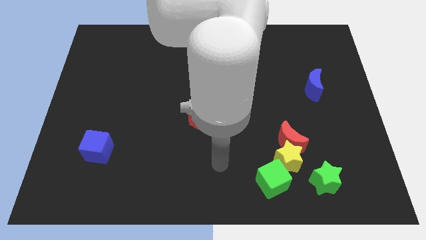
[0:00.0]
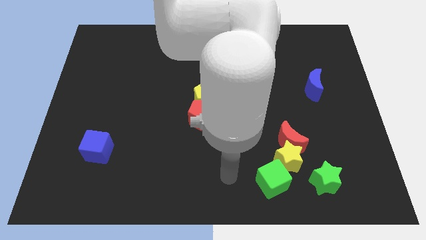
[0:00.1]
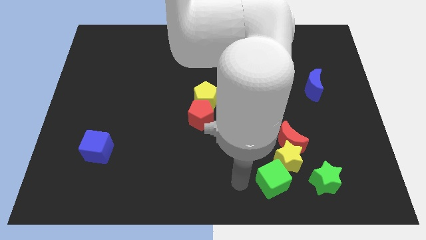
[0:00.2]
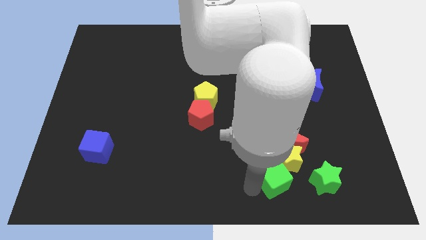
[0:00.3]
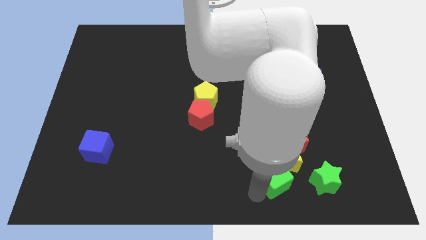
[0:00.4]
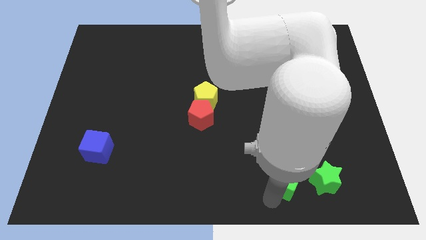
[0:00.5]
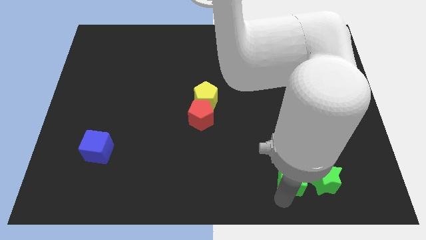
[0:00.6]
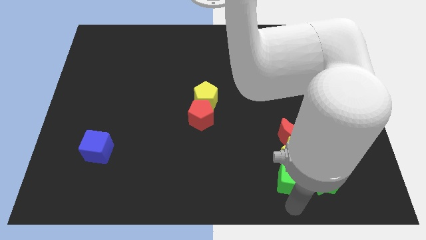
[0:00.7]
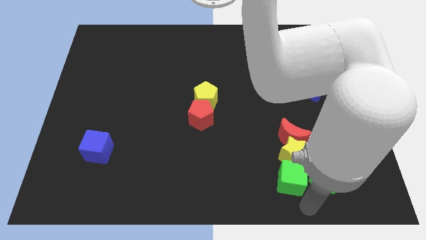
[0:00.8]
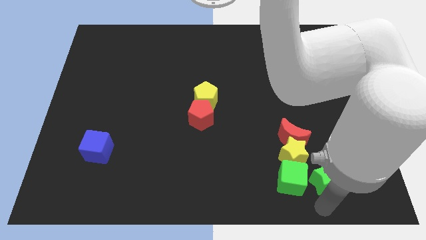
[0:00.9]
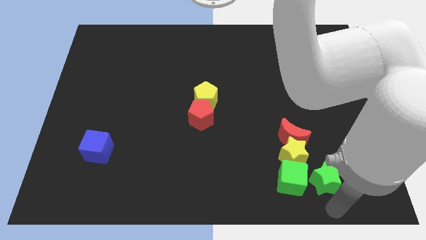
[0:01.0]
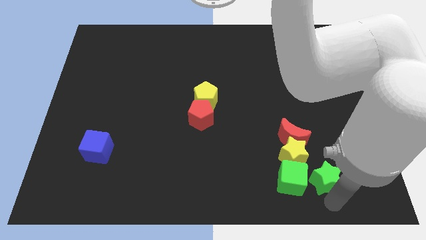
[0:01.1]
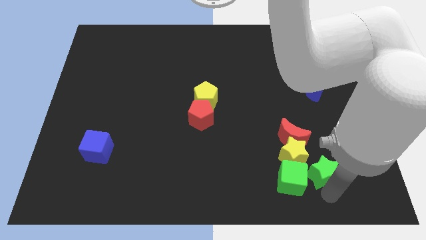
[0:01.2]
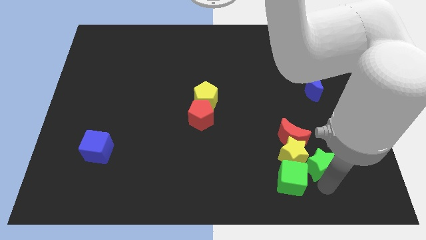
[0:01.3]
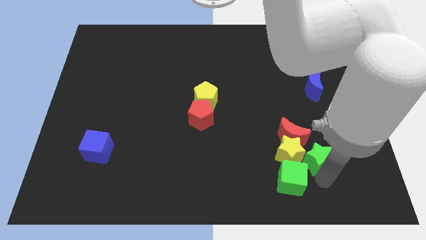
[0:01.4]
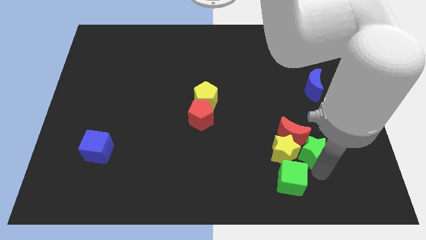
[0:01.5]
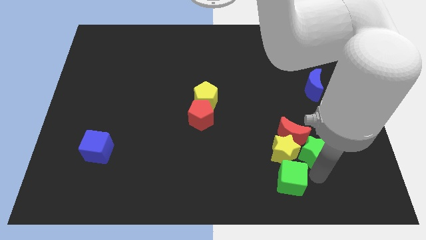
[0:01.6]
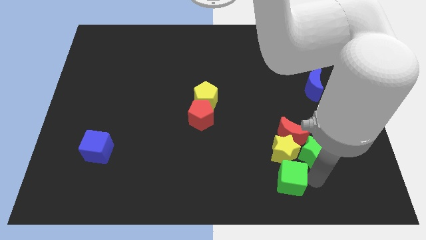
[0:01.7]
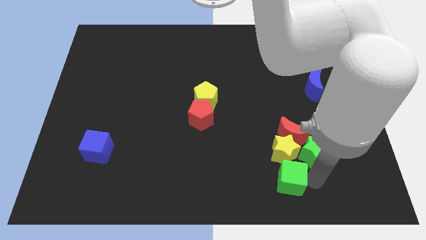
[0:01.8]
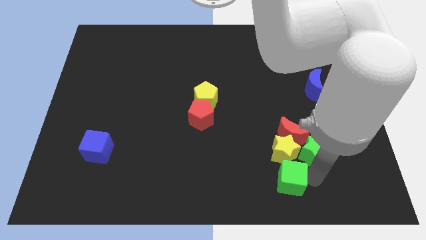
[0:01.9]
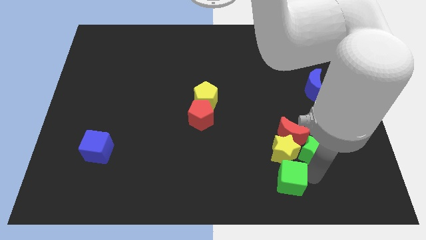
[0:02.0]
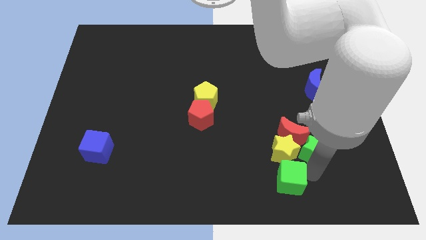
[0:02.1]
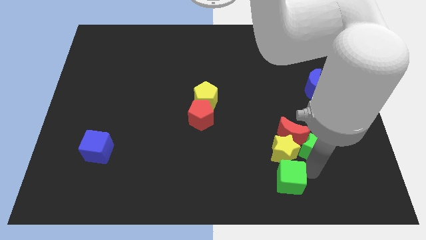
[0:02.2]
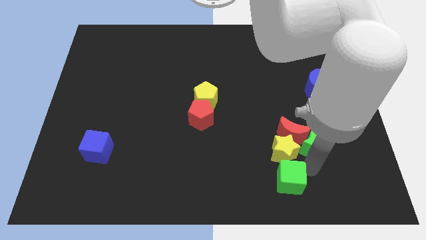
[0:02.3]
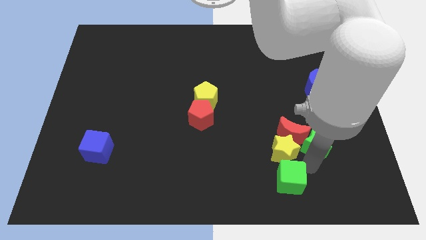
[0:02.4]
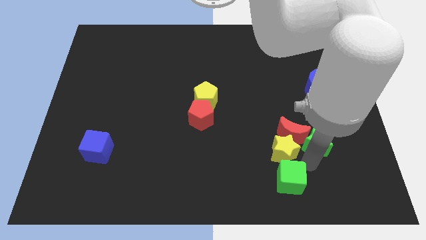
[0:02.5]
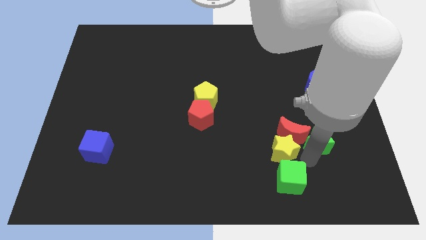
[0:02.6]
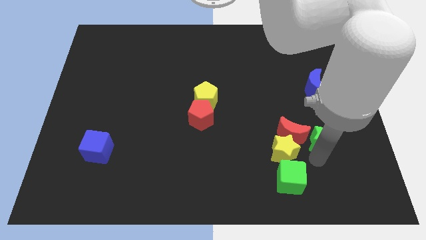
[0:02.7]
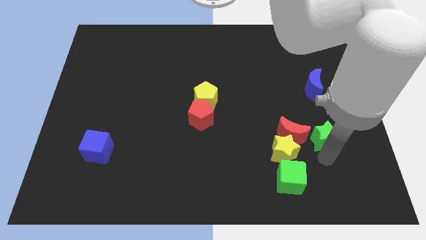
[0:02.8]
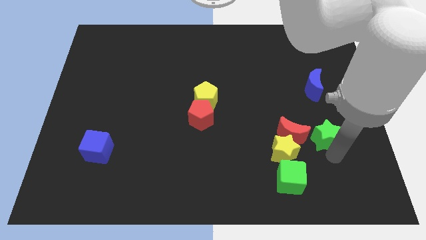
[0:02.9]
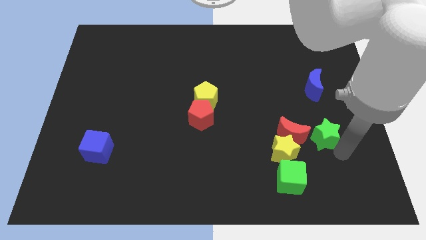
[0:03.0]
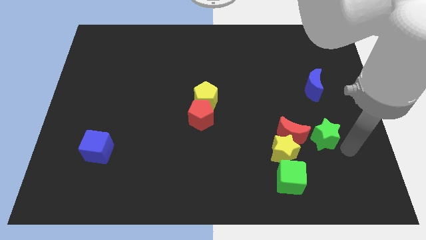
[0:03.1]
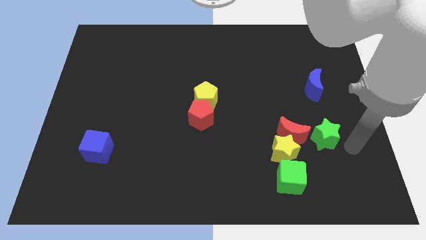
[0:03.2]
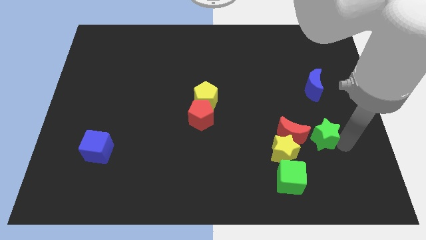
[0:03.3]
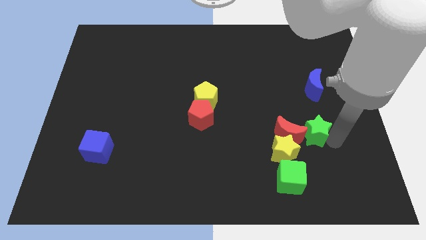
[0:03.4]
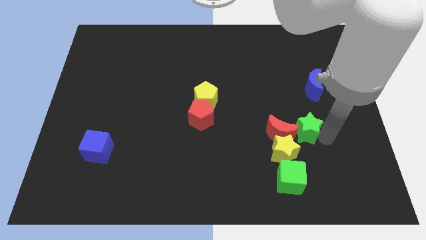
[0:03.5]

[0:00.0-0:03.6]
slightly push the green star up and to the left

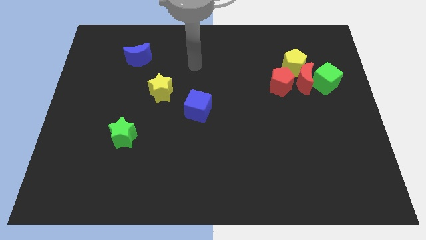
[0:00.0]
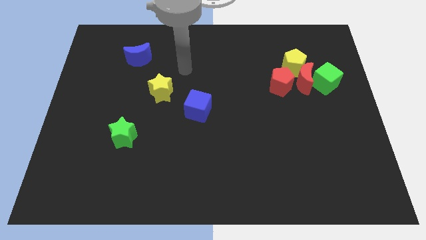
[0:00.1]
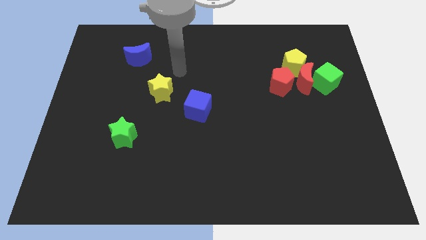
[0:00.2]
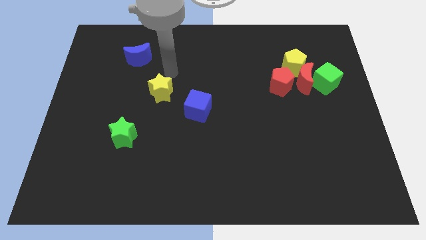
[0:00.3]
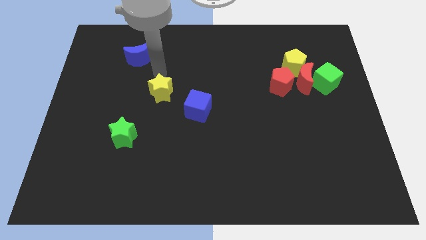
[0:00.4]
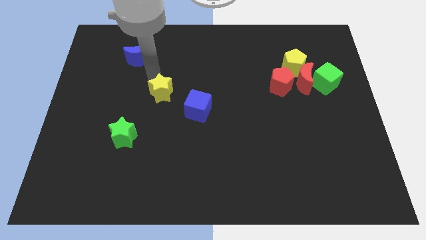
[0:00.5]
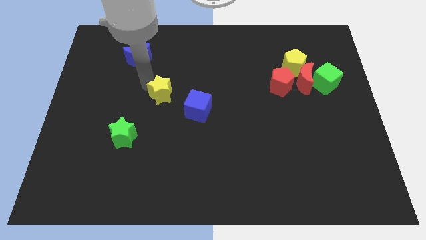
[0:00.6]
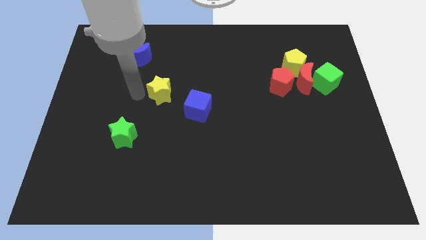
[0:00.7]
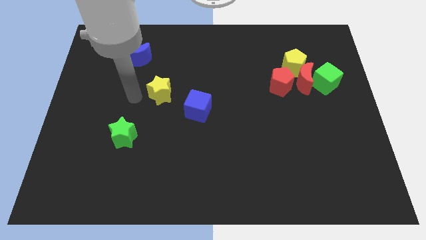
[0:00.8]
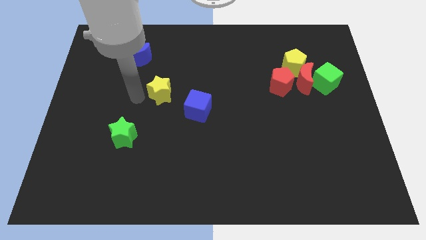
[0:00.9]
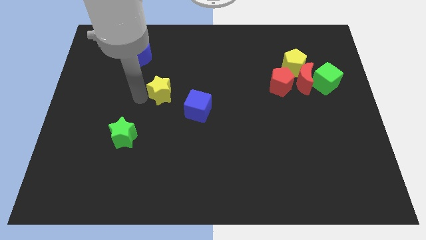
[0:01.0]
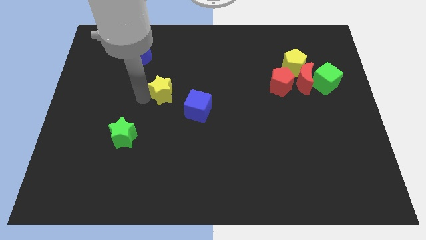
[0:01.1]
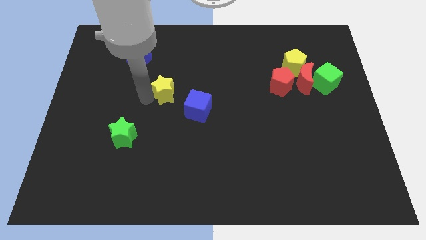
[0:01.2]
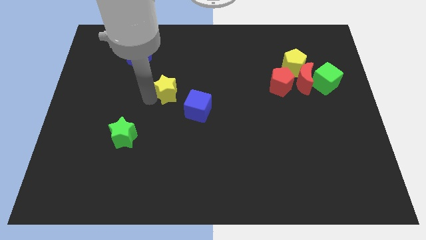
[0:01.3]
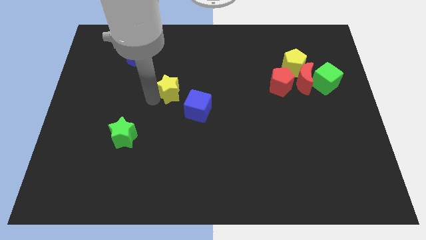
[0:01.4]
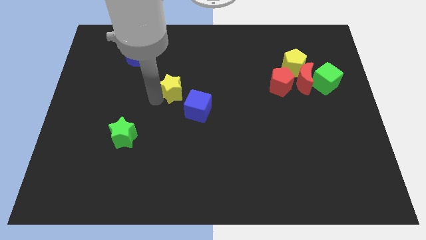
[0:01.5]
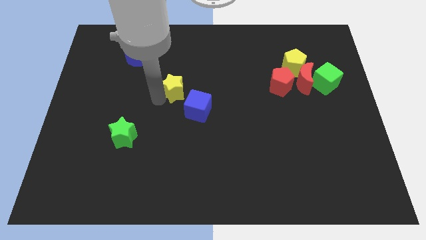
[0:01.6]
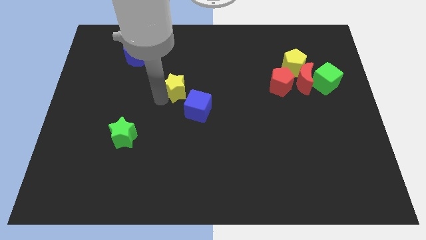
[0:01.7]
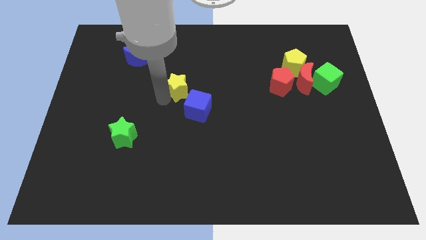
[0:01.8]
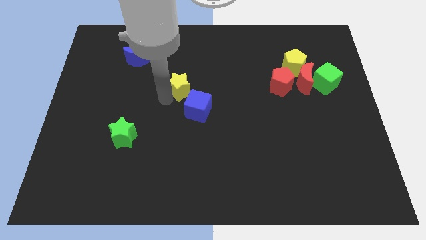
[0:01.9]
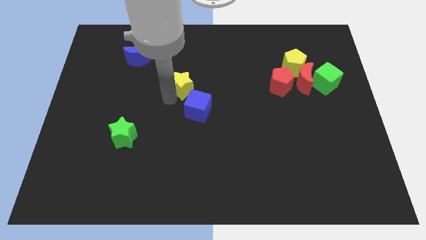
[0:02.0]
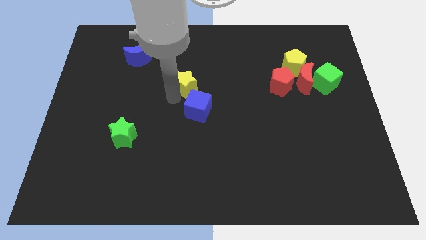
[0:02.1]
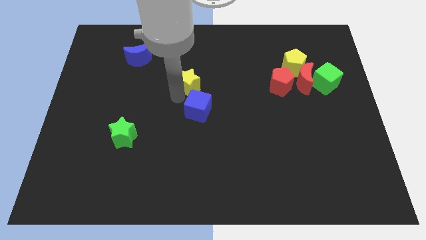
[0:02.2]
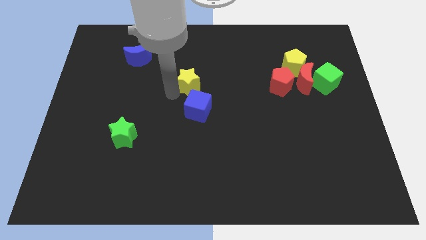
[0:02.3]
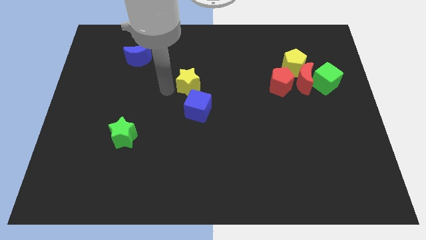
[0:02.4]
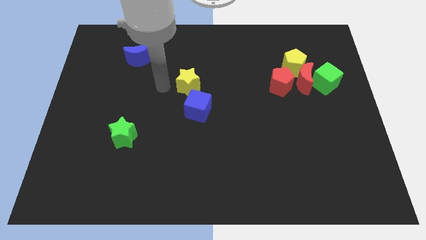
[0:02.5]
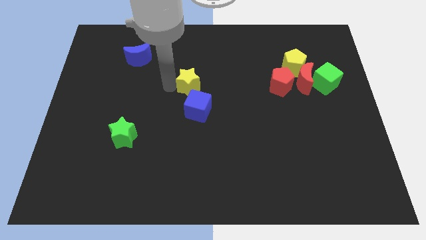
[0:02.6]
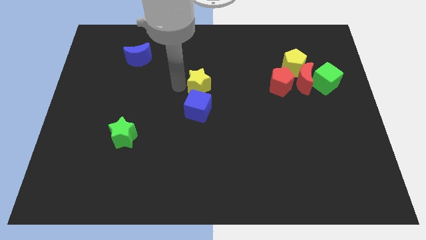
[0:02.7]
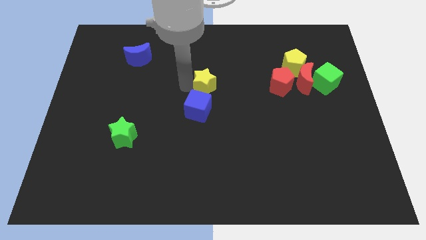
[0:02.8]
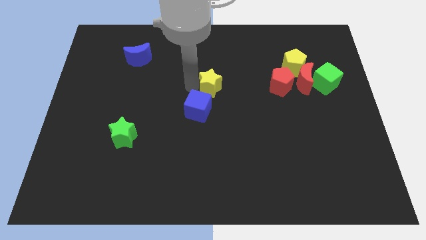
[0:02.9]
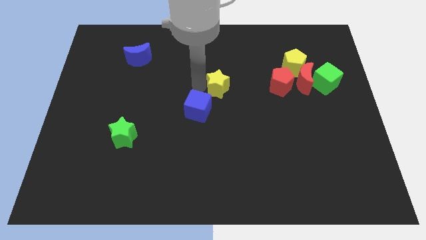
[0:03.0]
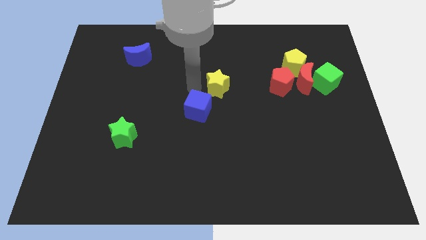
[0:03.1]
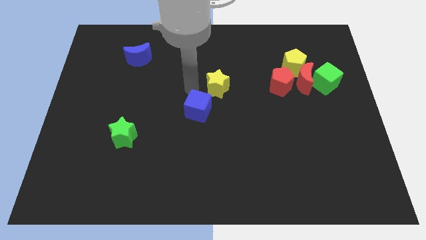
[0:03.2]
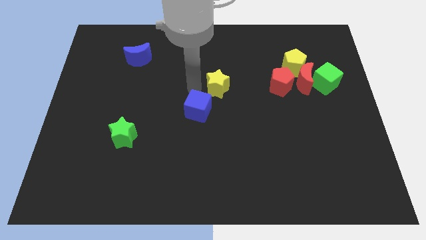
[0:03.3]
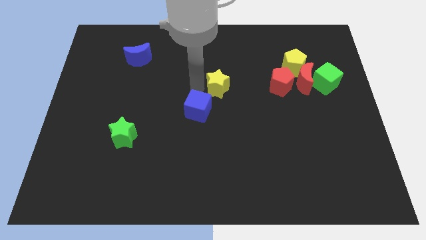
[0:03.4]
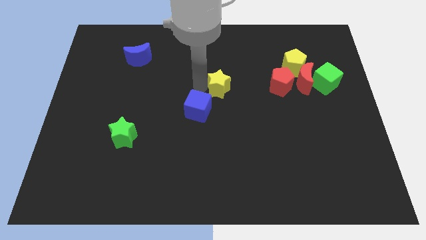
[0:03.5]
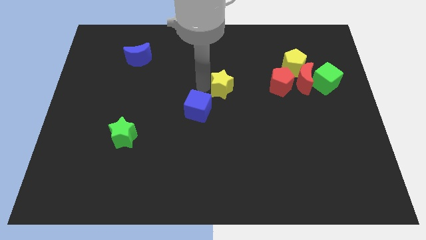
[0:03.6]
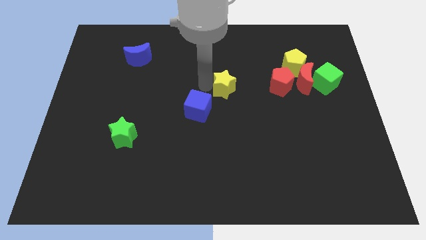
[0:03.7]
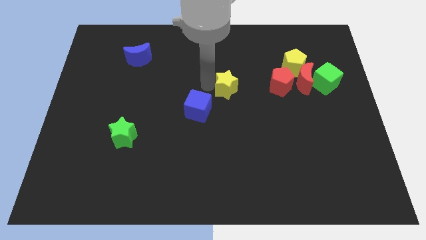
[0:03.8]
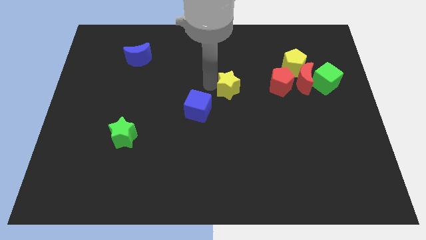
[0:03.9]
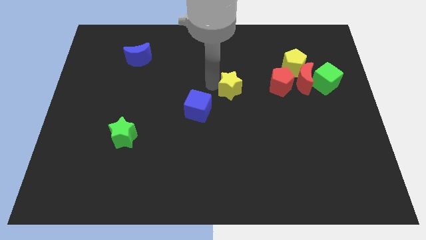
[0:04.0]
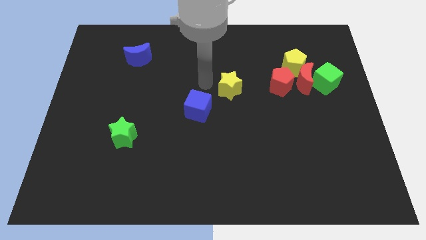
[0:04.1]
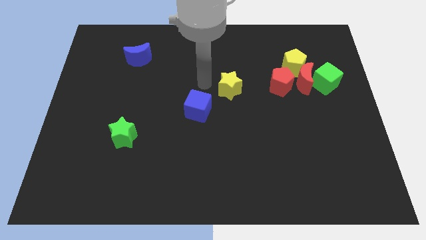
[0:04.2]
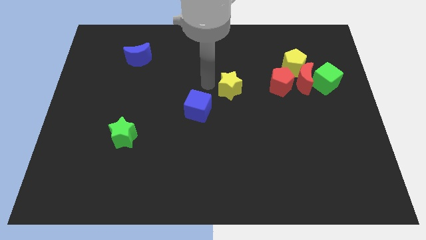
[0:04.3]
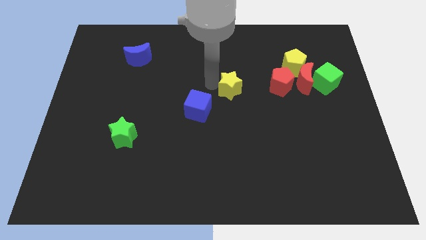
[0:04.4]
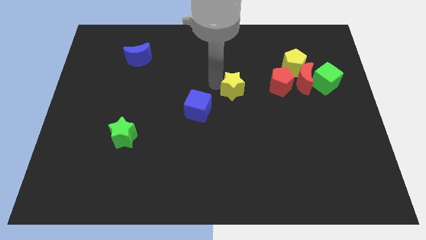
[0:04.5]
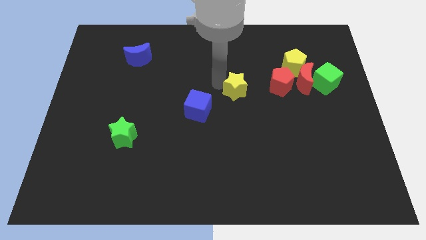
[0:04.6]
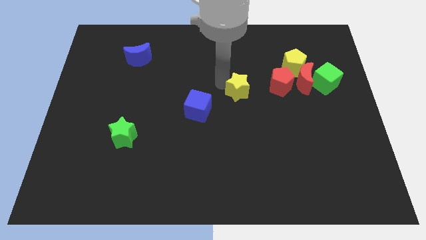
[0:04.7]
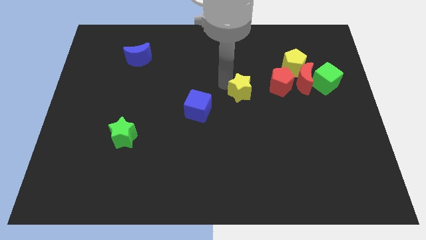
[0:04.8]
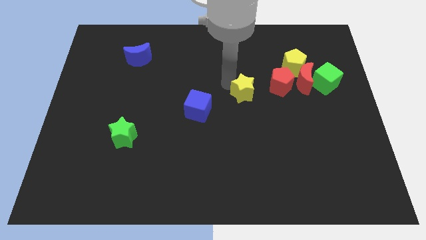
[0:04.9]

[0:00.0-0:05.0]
slide the yellow star to the right
